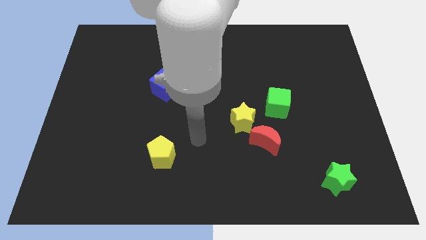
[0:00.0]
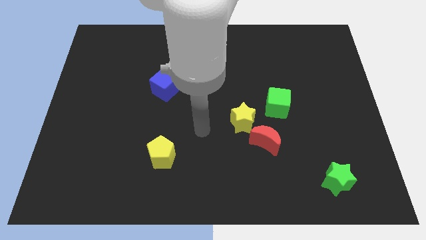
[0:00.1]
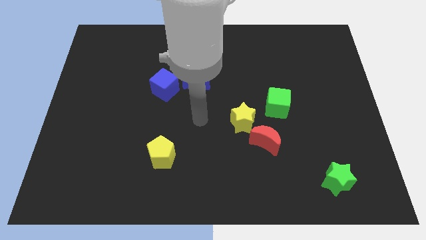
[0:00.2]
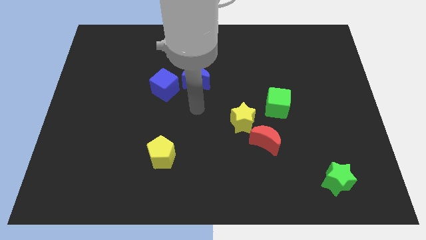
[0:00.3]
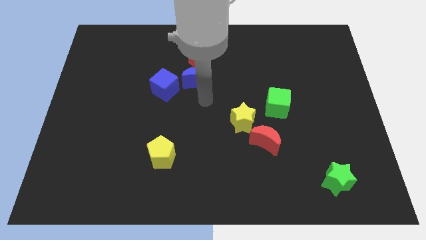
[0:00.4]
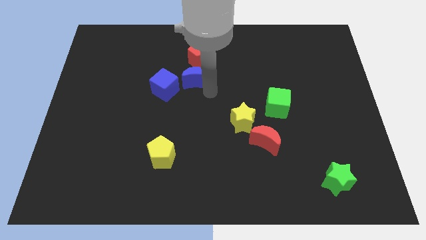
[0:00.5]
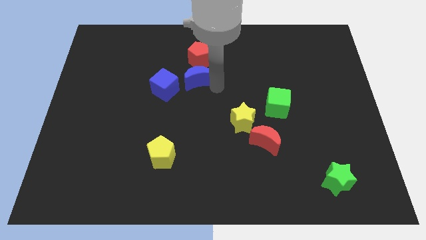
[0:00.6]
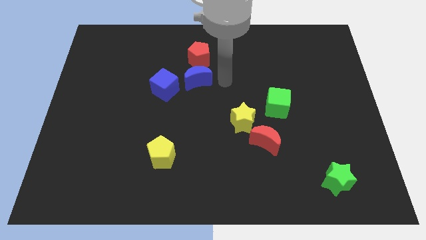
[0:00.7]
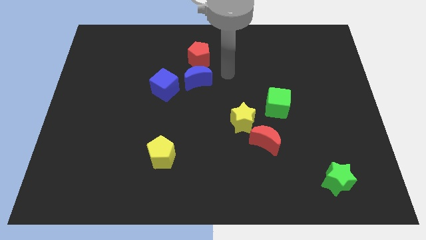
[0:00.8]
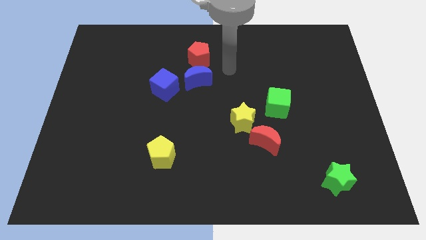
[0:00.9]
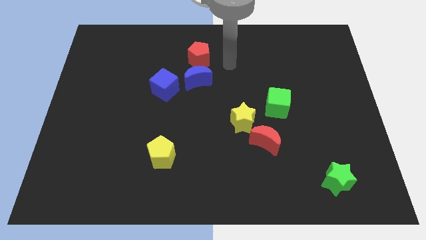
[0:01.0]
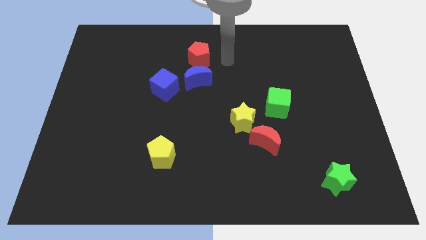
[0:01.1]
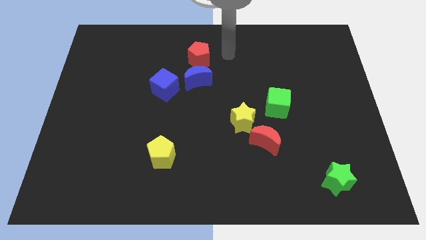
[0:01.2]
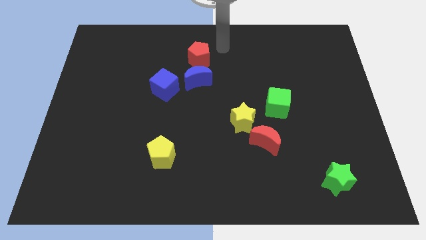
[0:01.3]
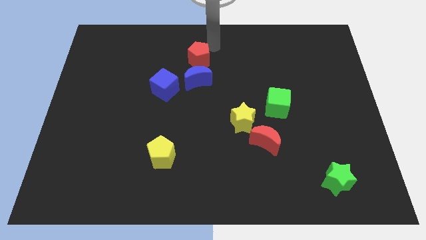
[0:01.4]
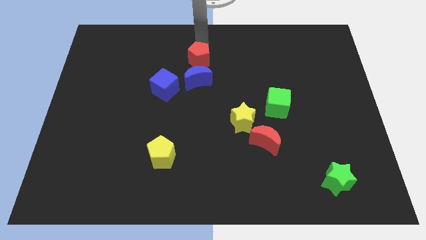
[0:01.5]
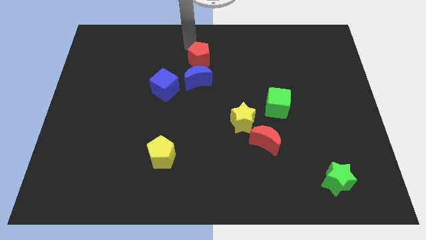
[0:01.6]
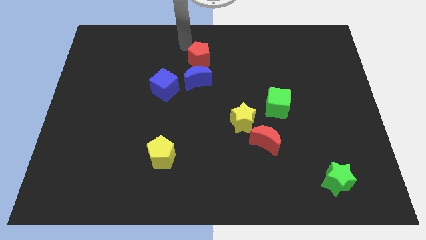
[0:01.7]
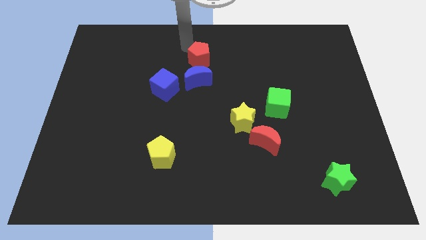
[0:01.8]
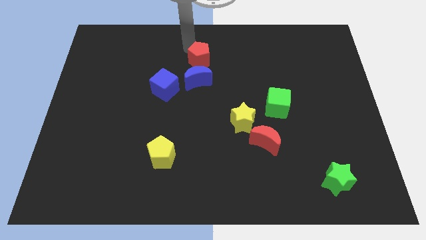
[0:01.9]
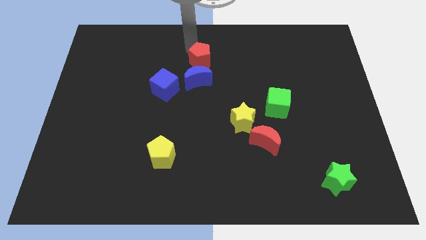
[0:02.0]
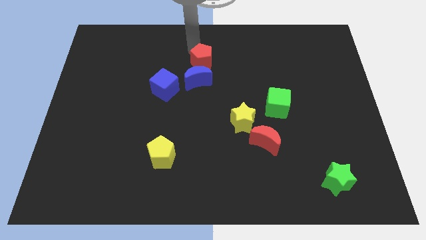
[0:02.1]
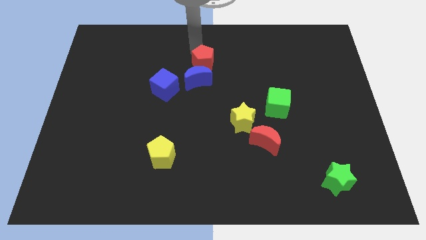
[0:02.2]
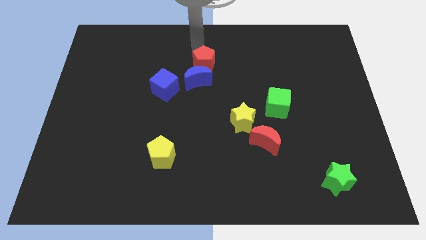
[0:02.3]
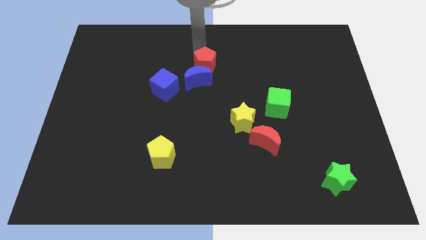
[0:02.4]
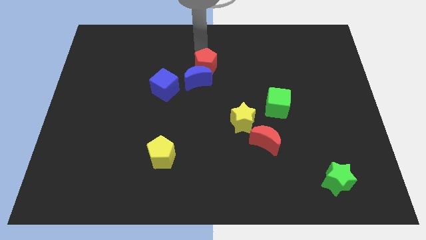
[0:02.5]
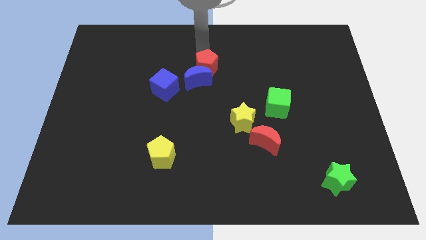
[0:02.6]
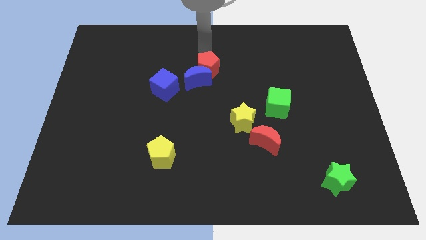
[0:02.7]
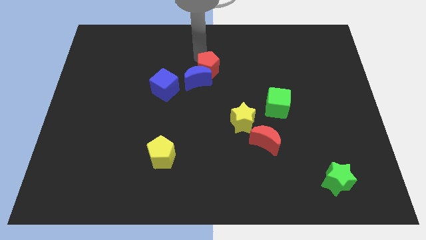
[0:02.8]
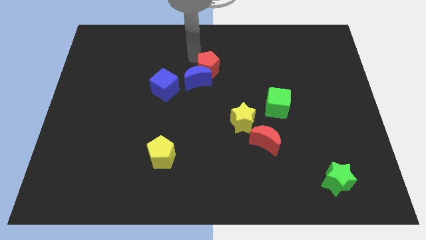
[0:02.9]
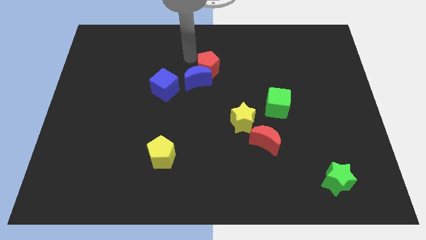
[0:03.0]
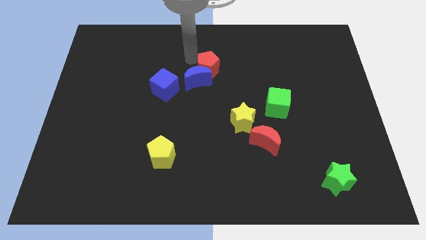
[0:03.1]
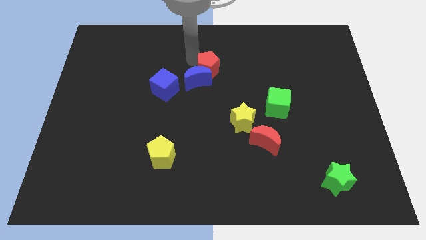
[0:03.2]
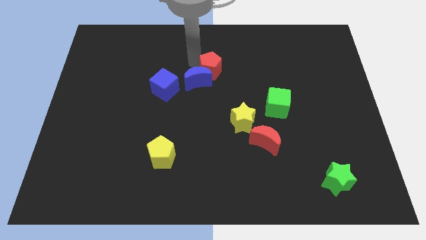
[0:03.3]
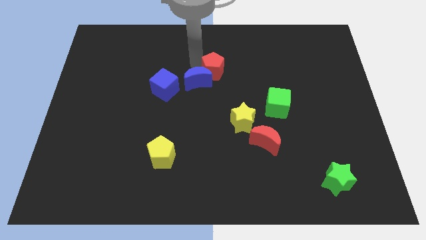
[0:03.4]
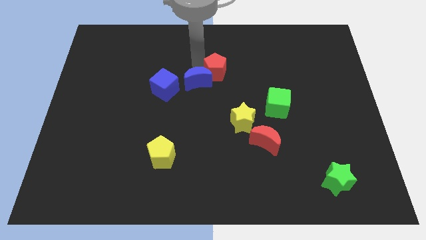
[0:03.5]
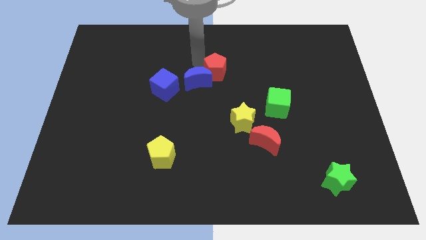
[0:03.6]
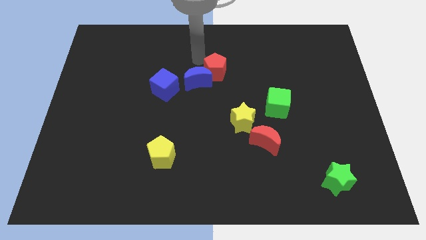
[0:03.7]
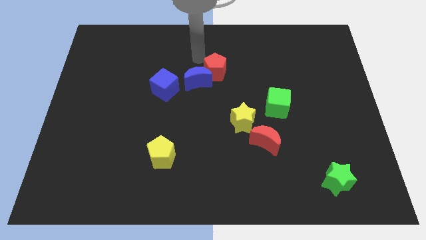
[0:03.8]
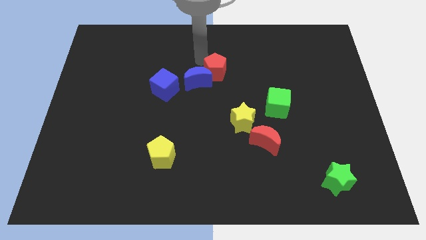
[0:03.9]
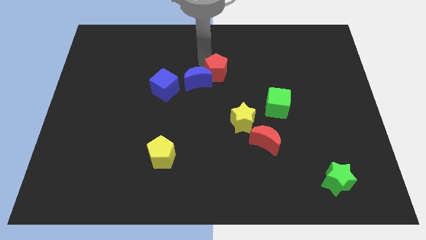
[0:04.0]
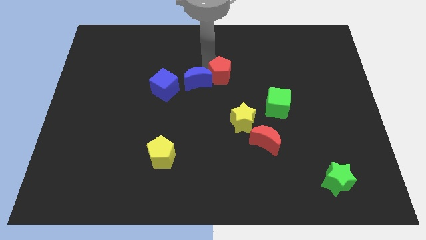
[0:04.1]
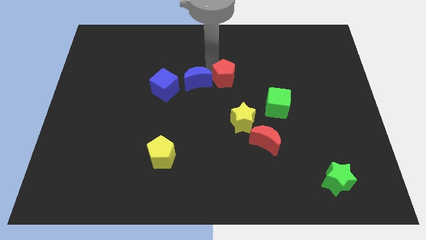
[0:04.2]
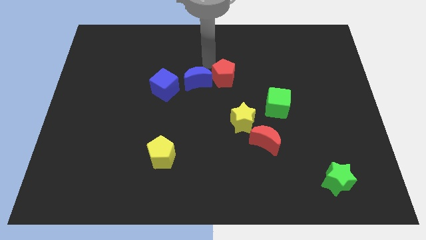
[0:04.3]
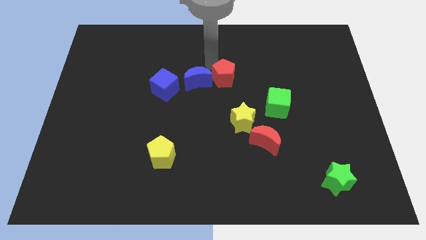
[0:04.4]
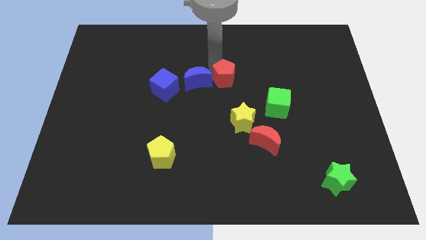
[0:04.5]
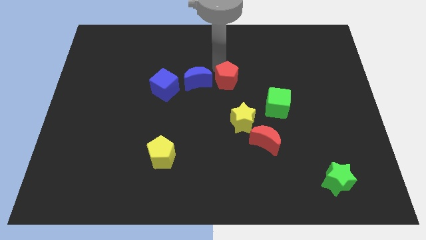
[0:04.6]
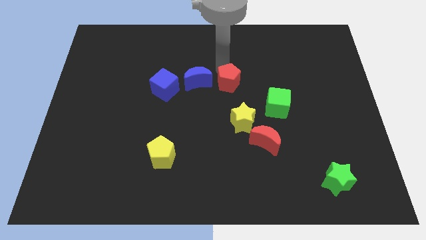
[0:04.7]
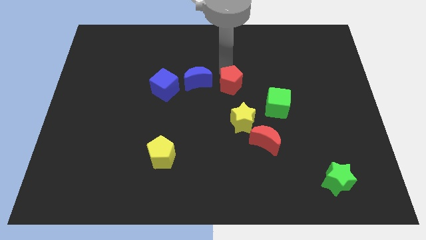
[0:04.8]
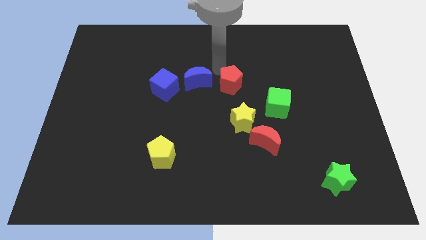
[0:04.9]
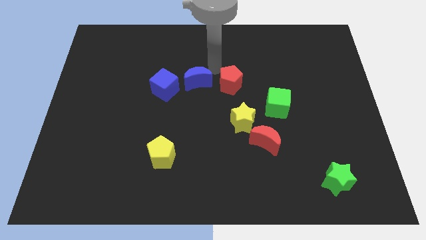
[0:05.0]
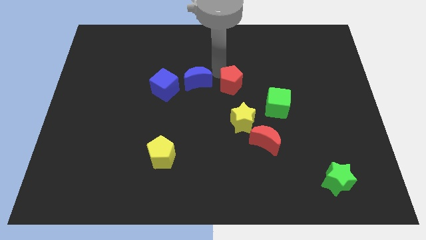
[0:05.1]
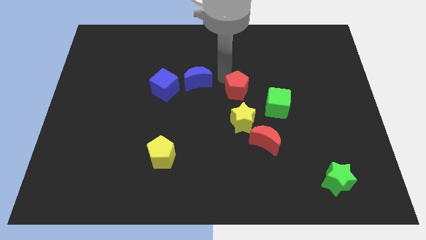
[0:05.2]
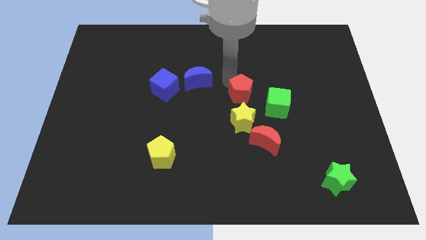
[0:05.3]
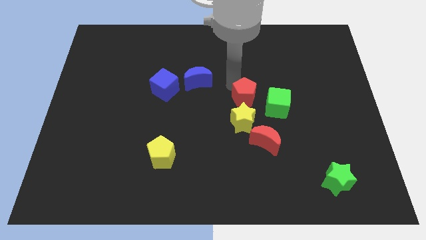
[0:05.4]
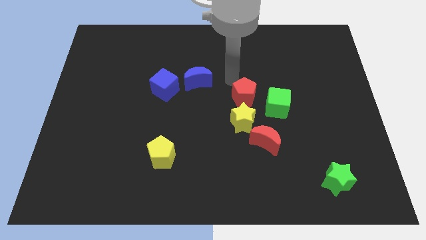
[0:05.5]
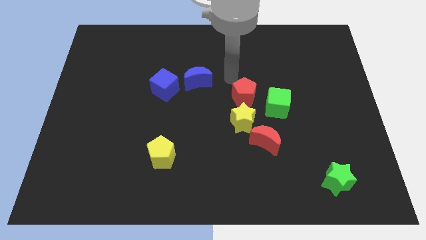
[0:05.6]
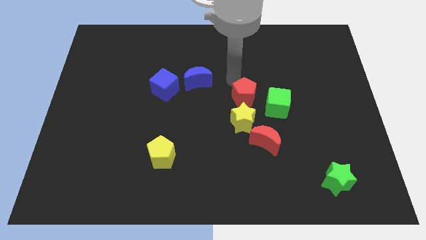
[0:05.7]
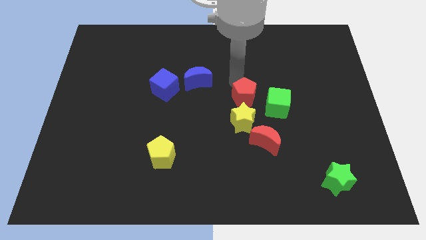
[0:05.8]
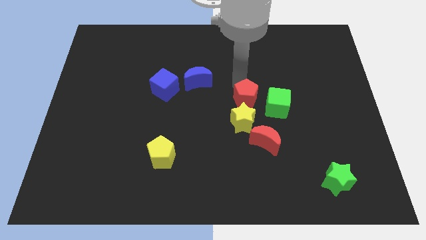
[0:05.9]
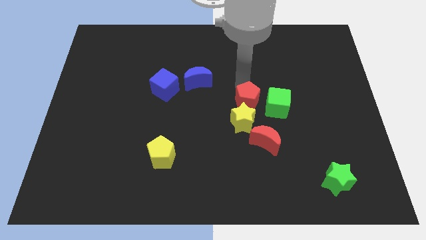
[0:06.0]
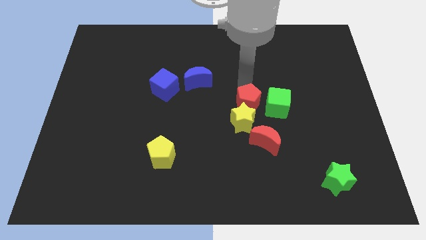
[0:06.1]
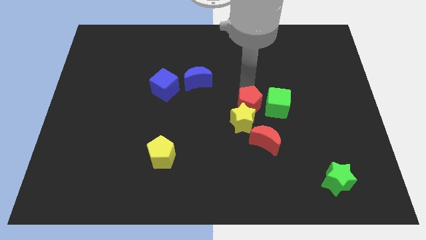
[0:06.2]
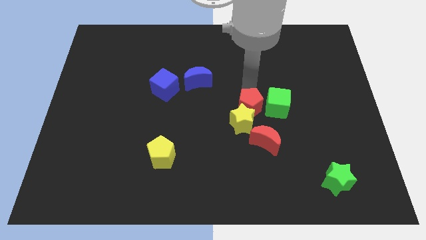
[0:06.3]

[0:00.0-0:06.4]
push the red pentagon diagonally down and to the right

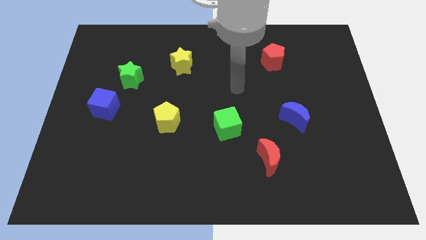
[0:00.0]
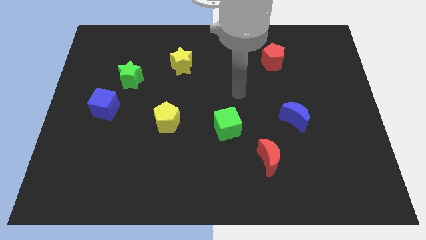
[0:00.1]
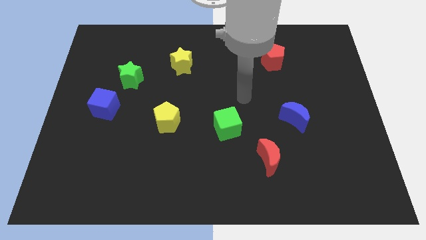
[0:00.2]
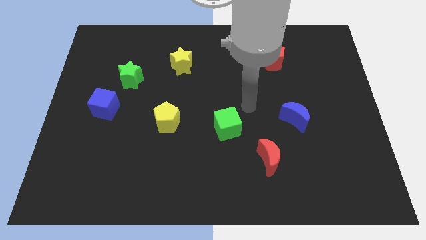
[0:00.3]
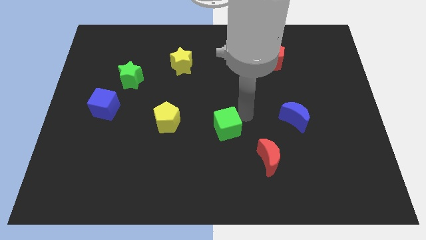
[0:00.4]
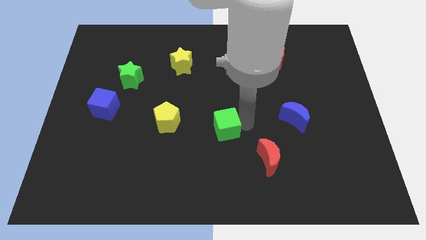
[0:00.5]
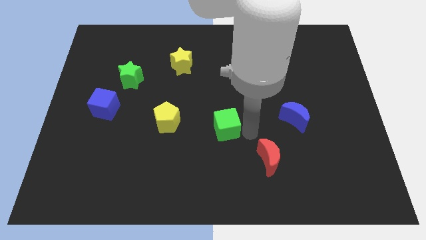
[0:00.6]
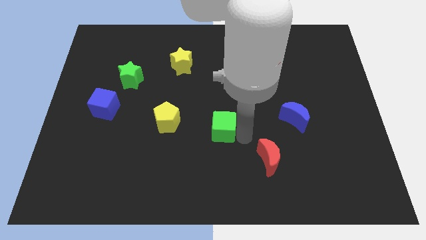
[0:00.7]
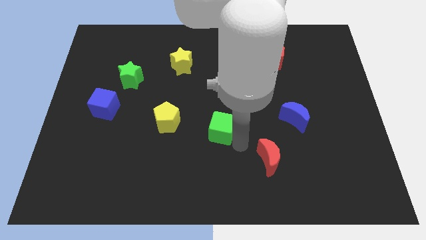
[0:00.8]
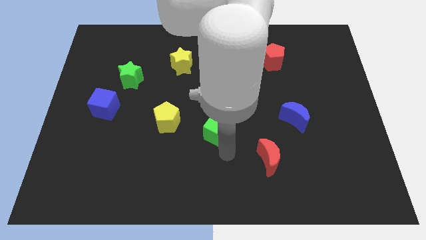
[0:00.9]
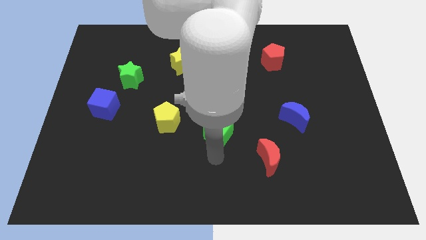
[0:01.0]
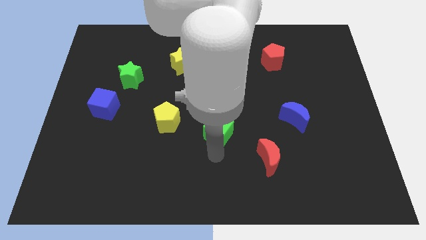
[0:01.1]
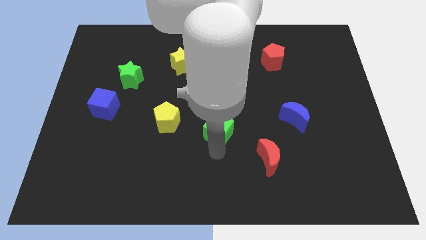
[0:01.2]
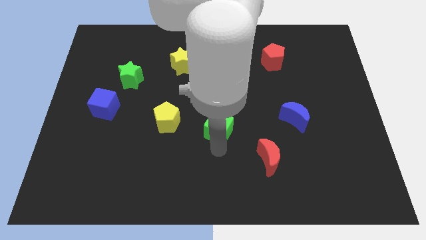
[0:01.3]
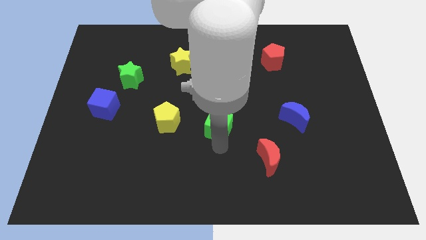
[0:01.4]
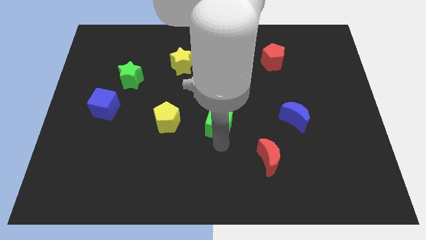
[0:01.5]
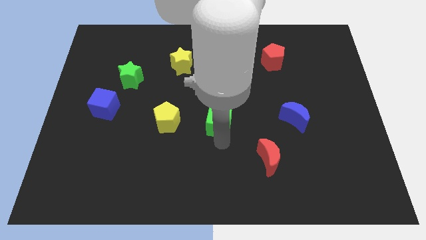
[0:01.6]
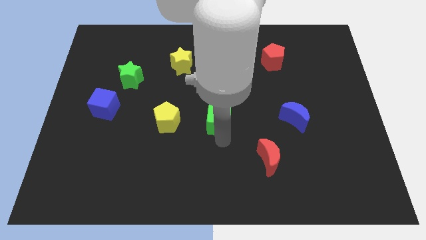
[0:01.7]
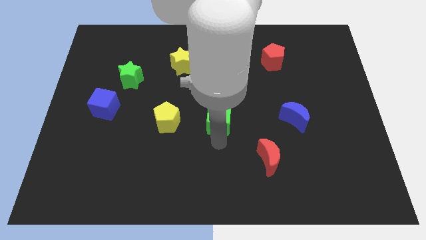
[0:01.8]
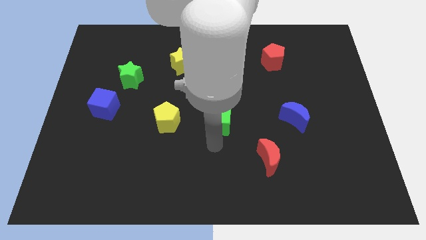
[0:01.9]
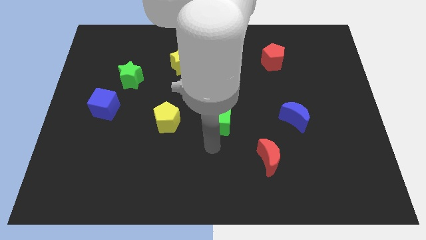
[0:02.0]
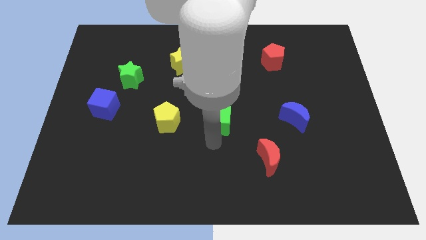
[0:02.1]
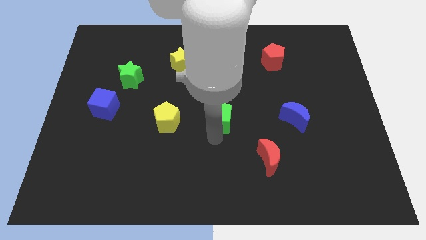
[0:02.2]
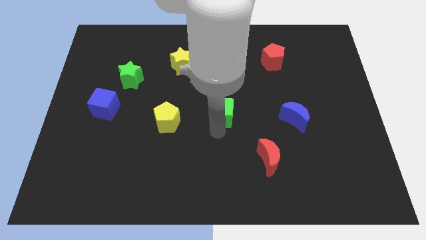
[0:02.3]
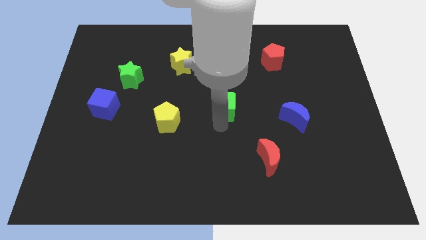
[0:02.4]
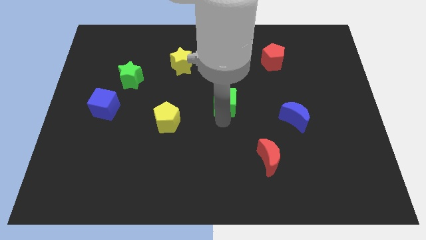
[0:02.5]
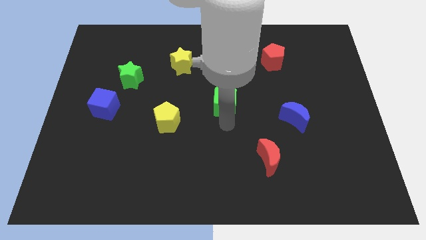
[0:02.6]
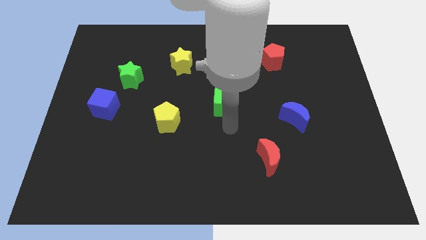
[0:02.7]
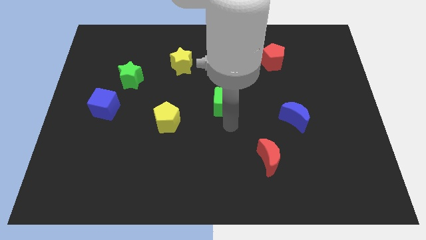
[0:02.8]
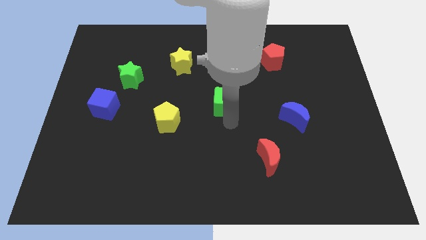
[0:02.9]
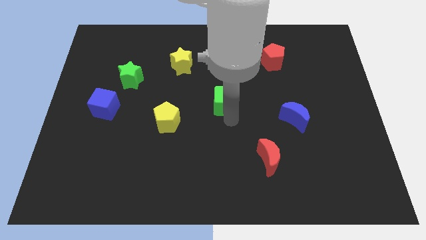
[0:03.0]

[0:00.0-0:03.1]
push the green cube a little upwards
